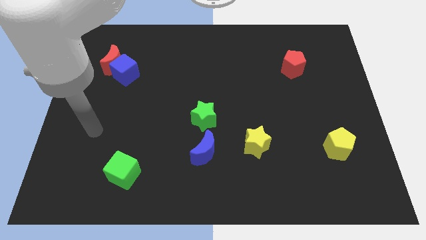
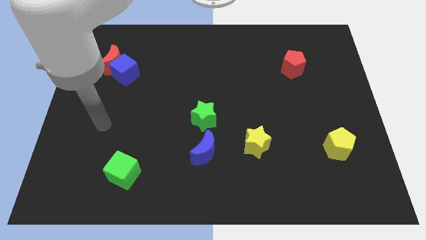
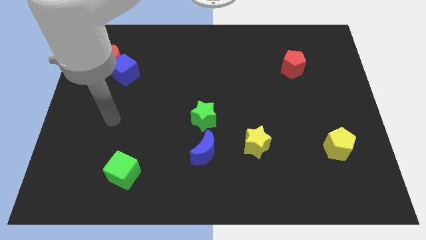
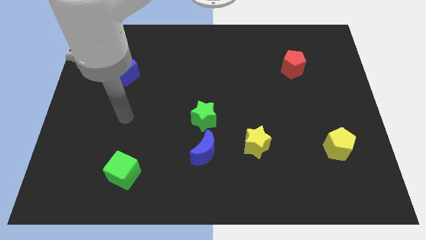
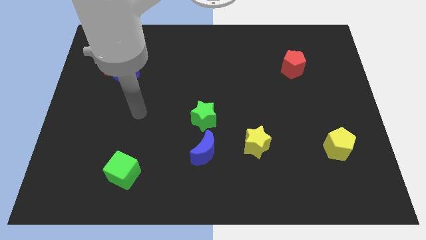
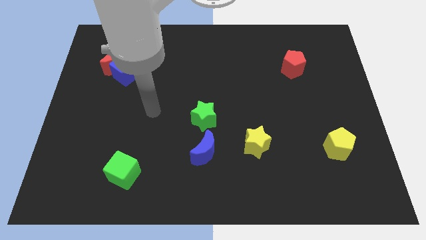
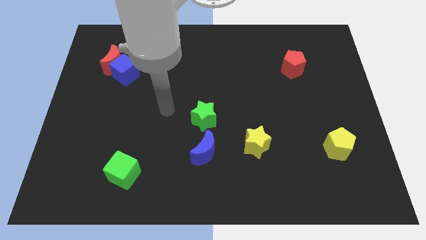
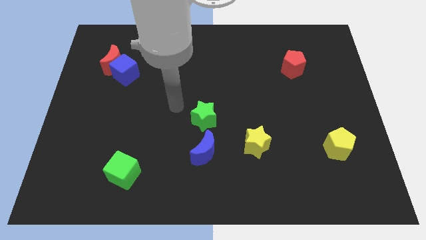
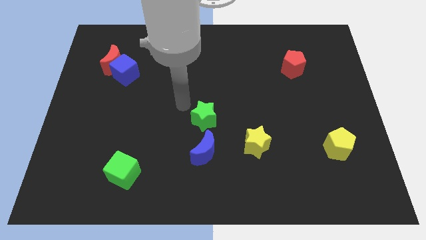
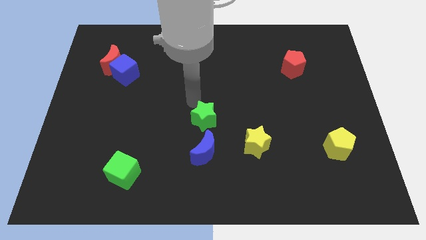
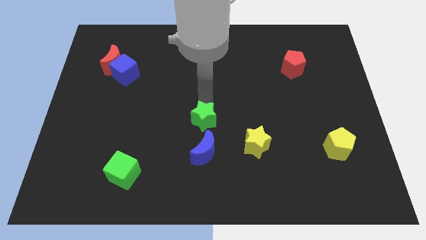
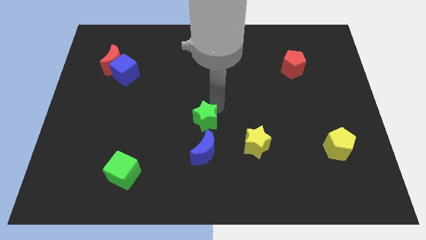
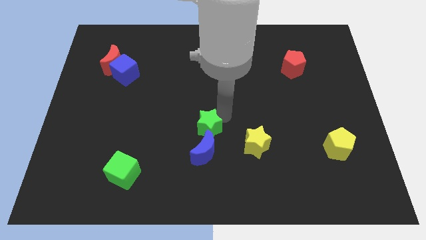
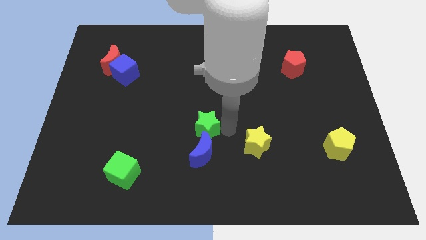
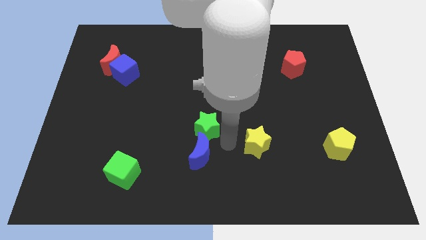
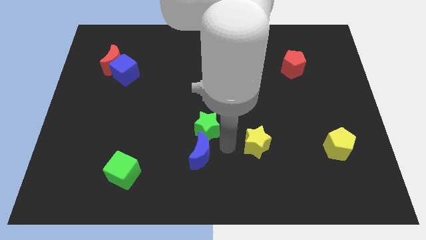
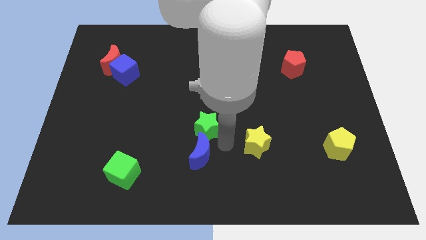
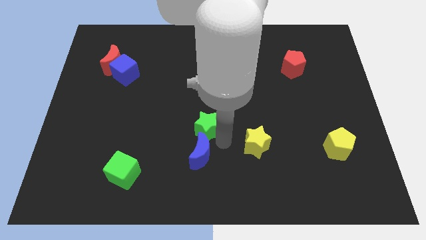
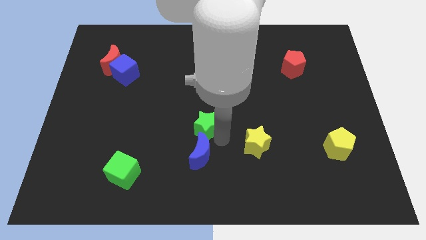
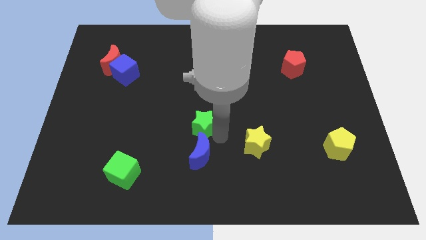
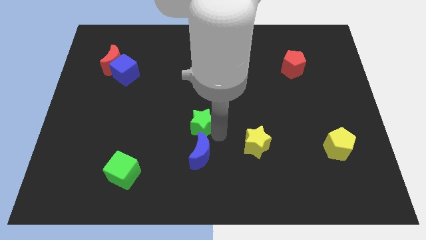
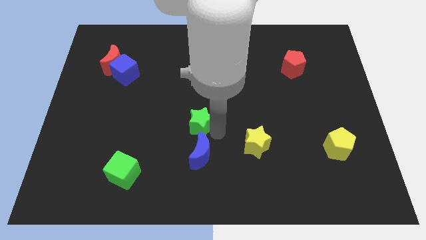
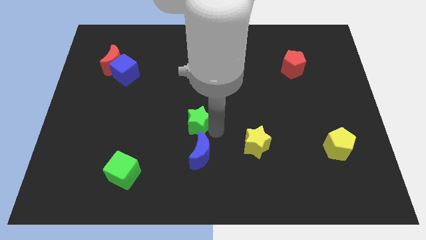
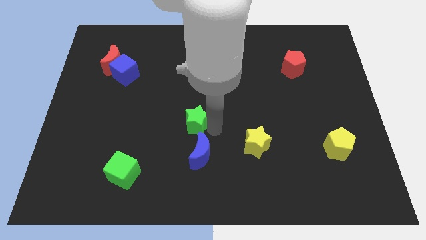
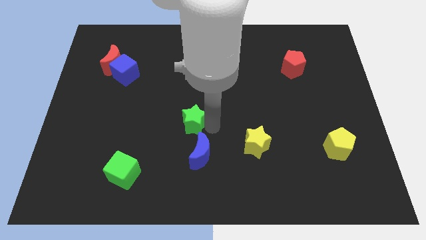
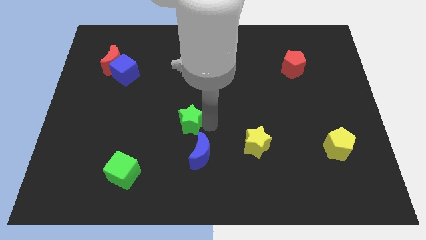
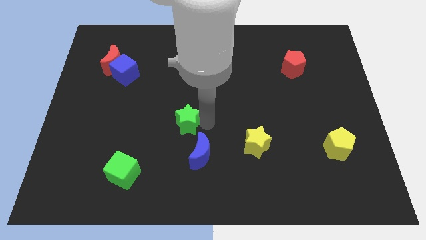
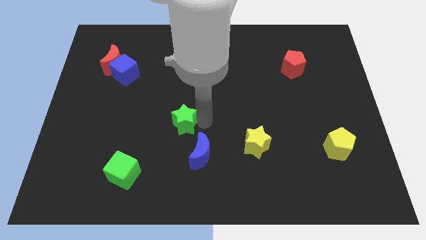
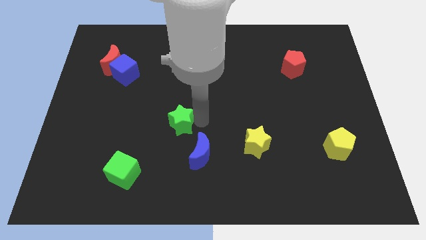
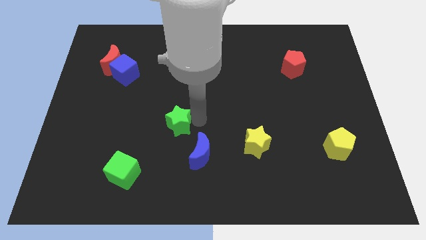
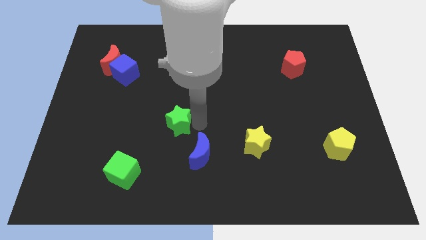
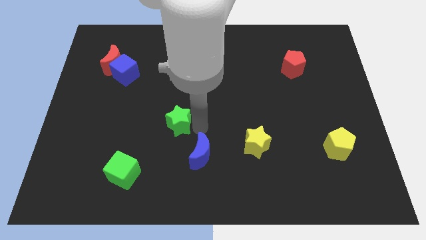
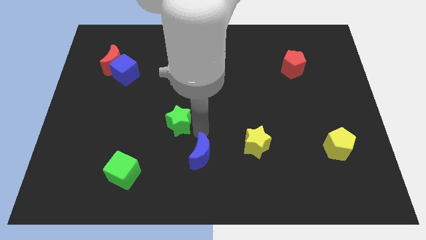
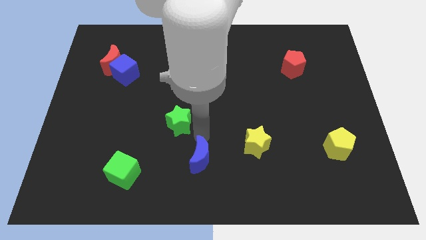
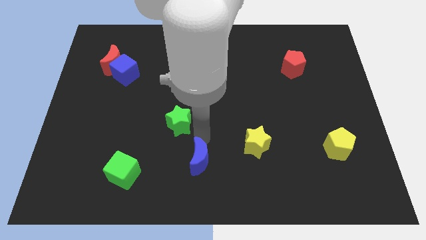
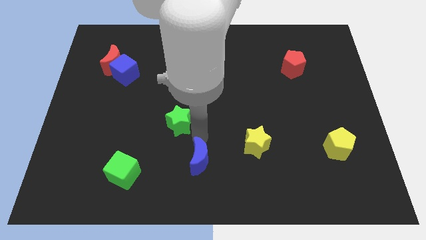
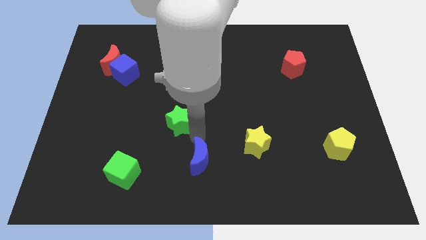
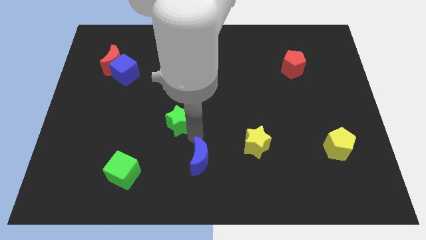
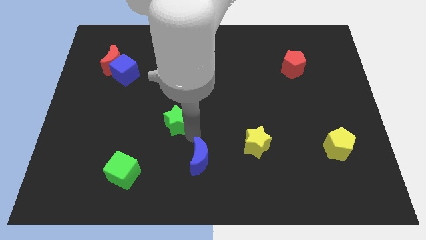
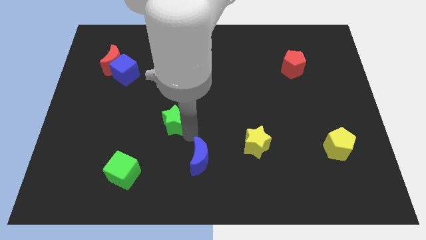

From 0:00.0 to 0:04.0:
slide the green star left slightly

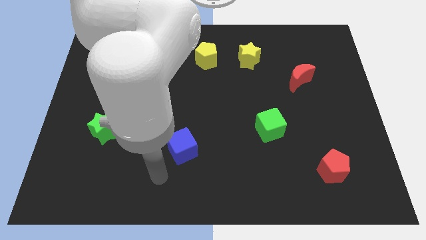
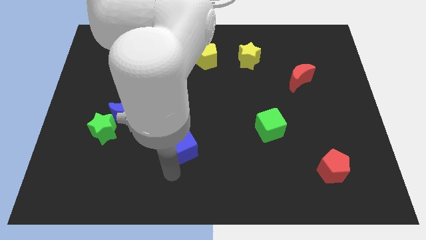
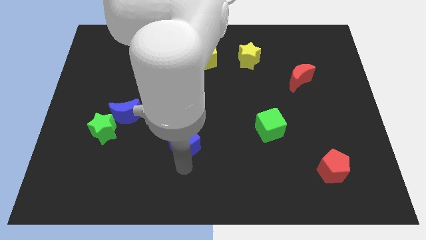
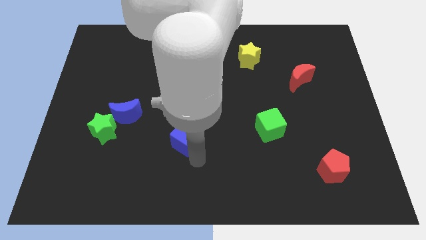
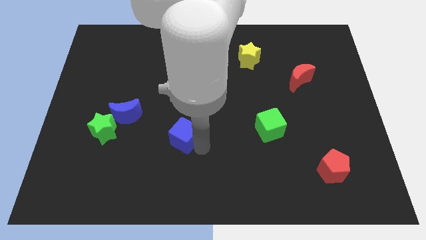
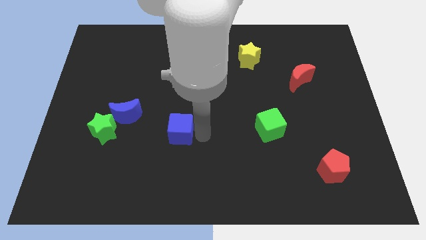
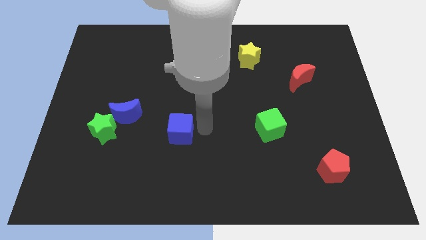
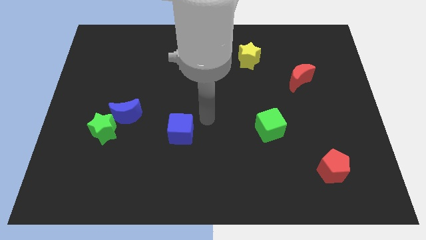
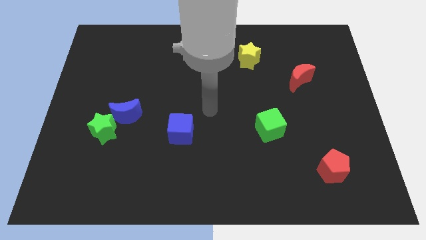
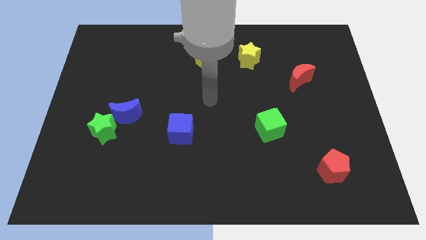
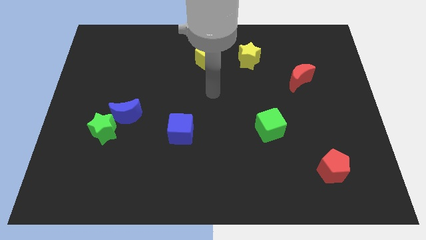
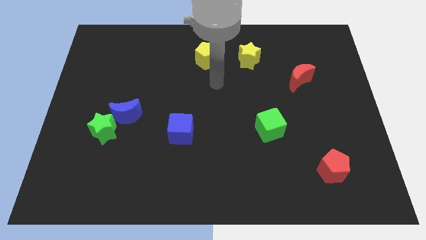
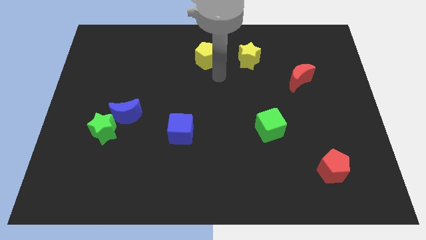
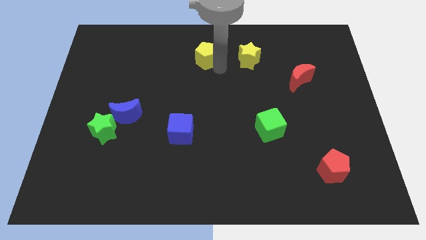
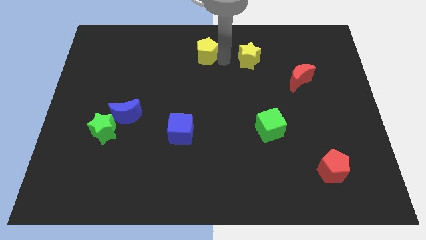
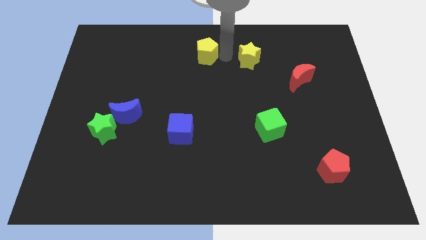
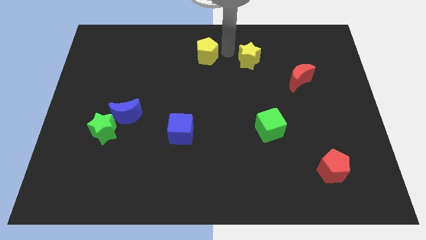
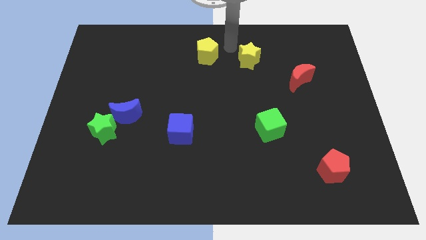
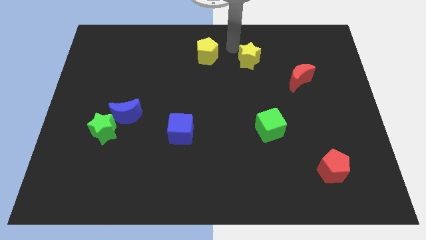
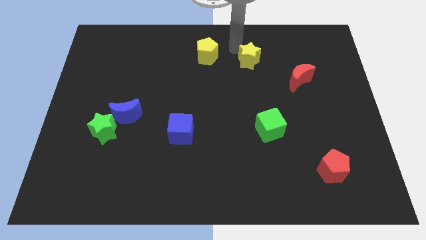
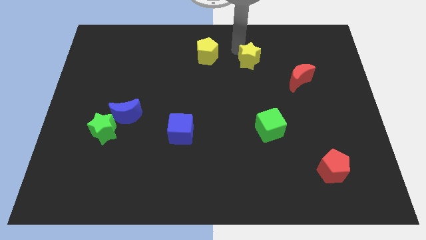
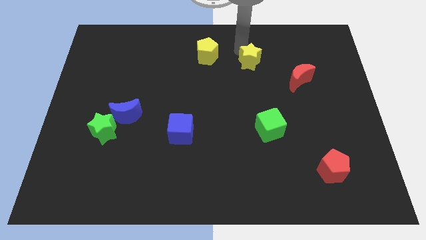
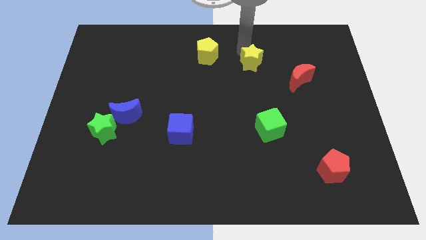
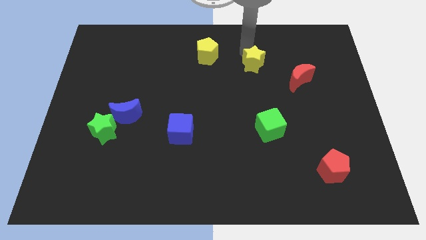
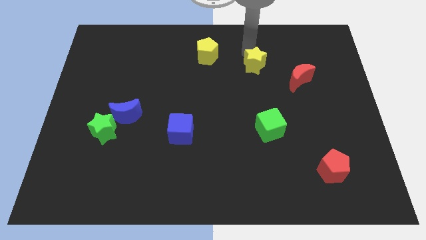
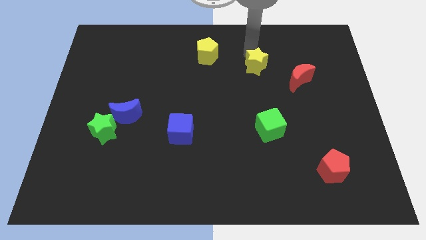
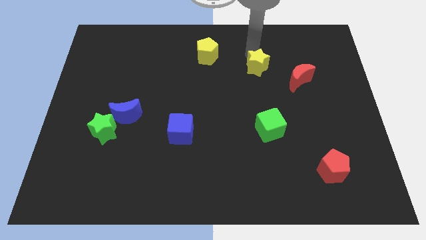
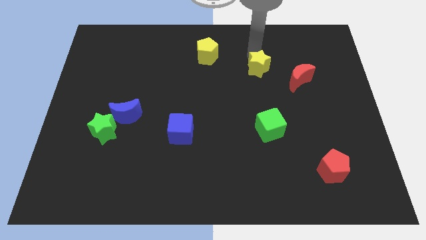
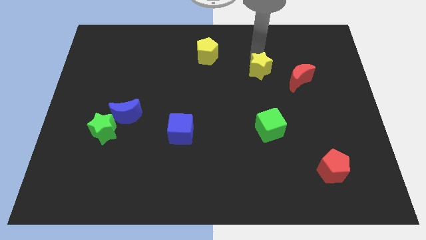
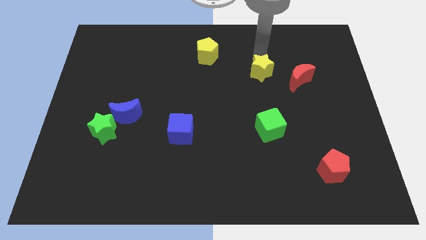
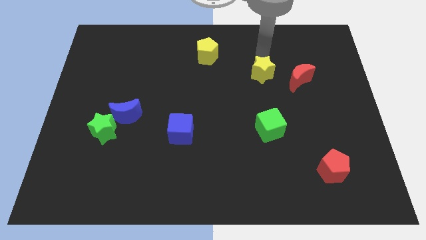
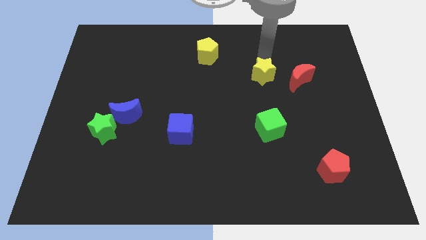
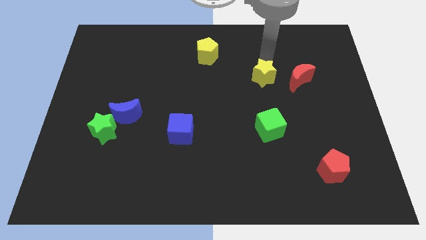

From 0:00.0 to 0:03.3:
slightly push the yellow star down and then right

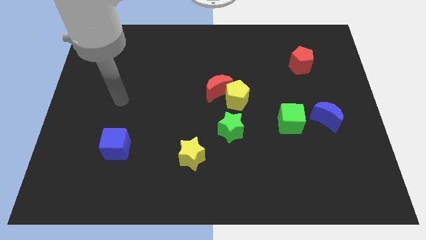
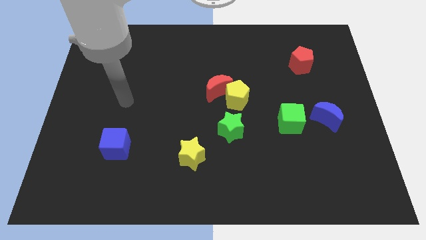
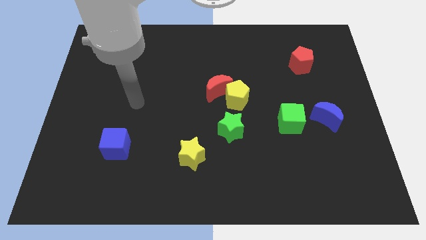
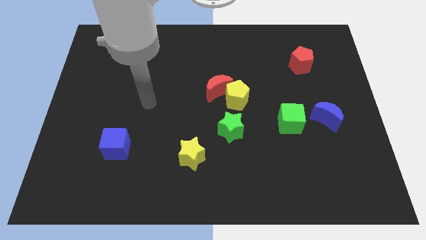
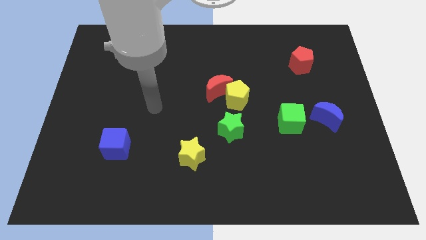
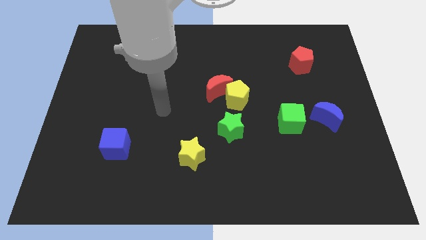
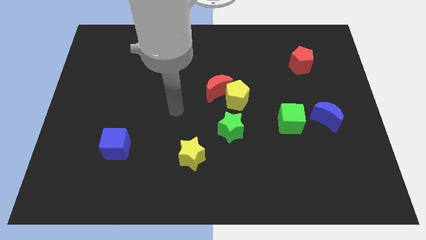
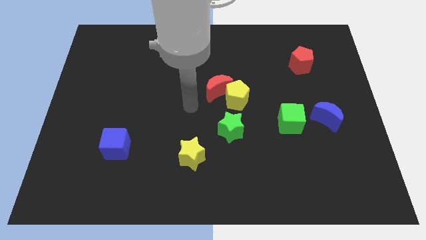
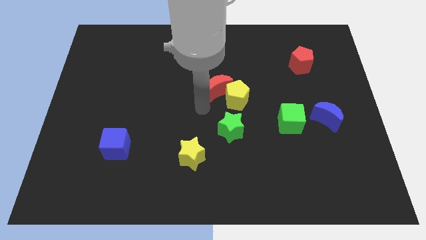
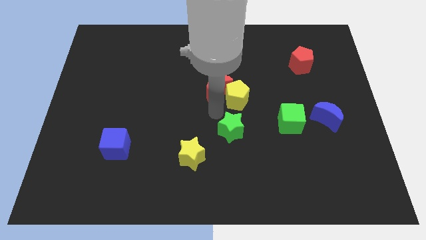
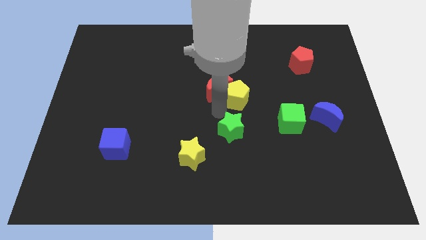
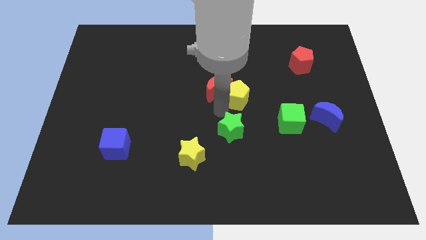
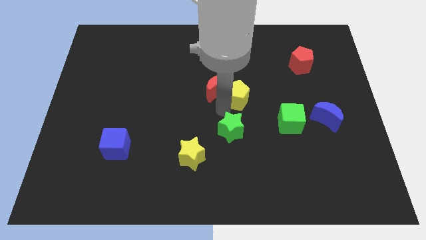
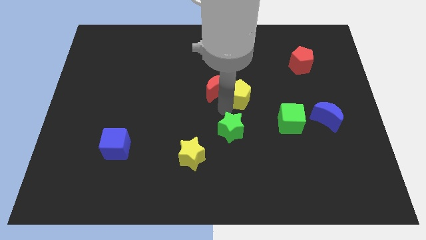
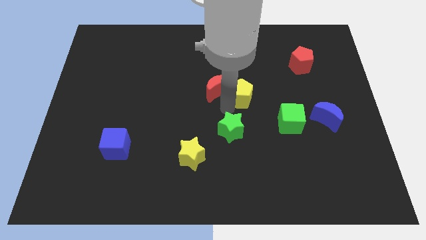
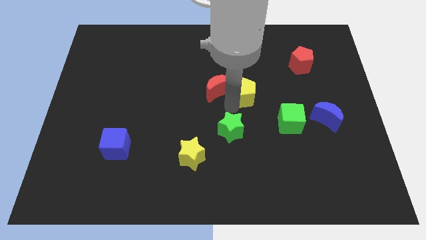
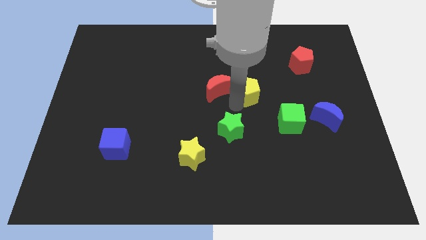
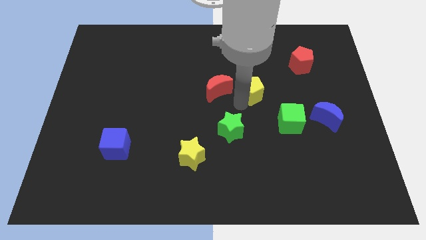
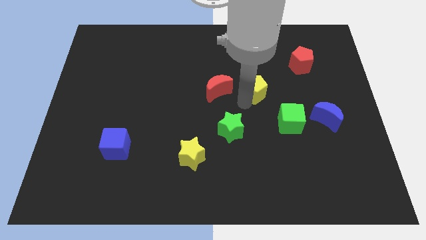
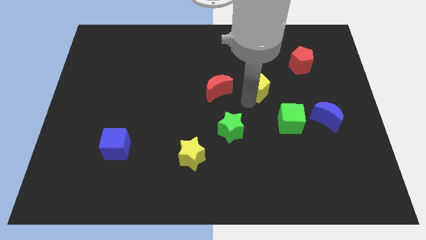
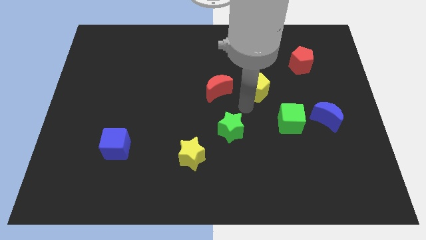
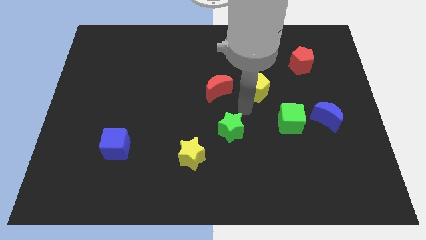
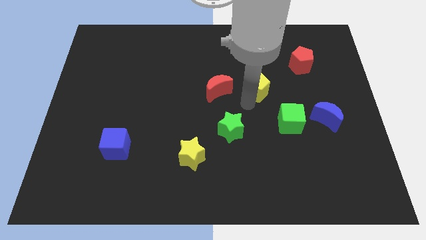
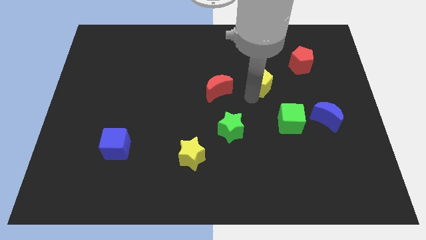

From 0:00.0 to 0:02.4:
slightly move the yellow pentagon upwards and to the right diagonally
